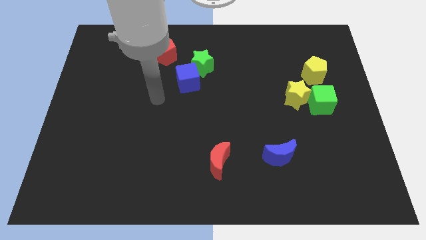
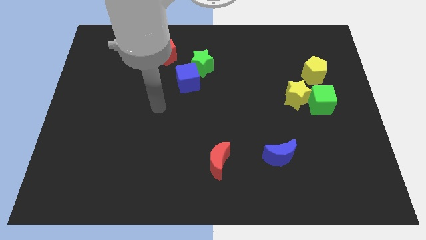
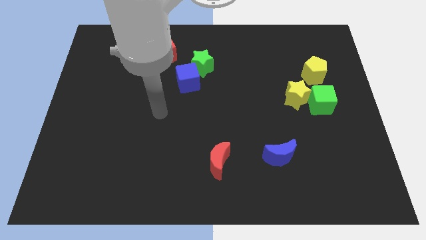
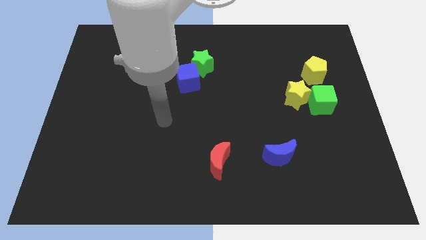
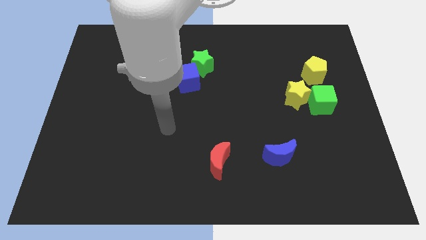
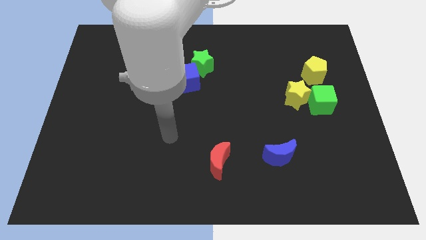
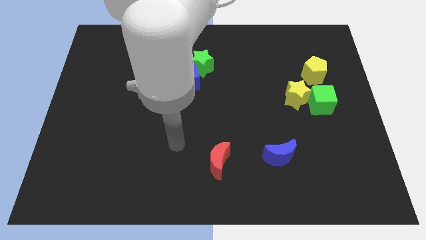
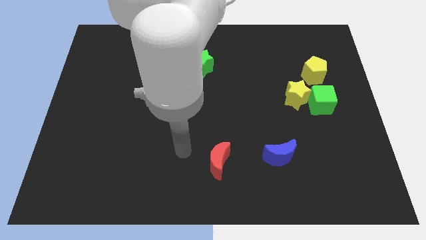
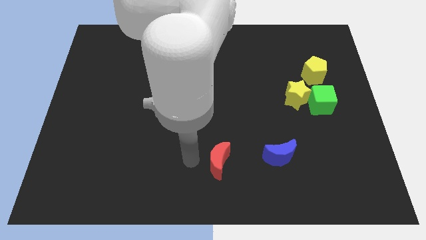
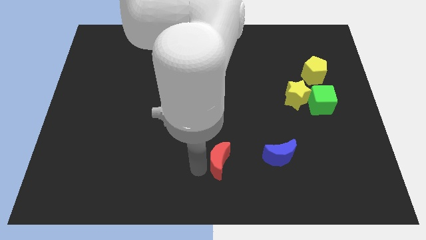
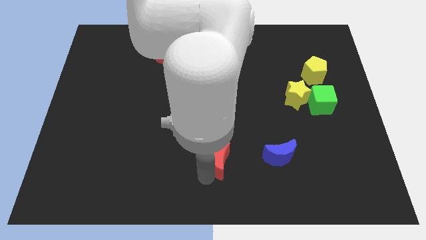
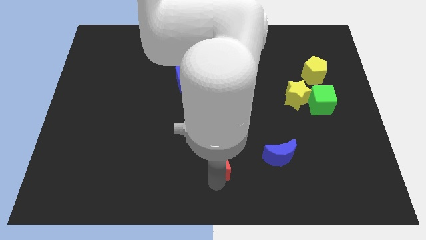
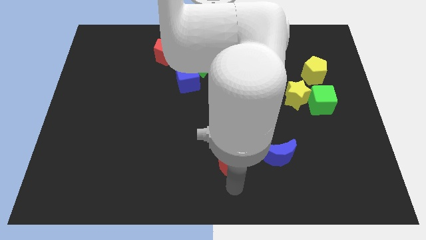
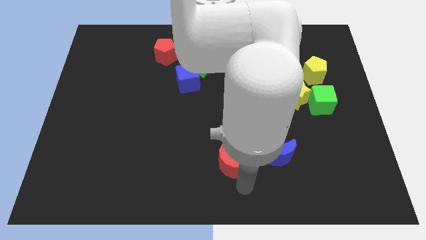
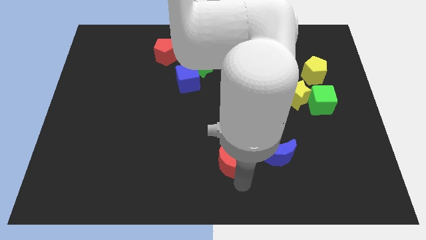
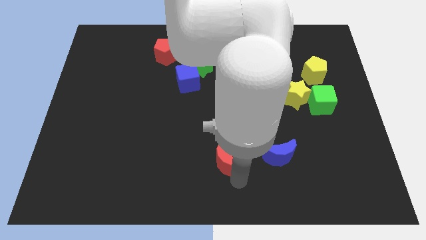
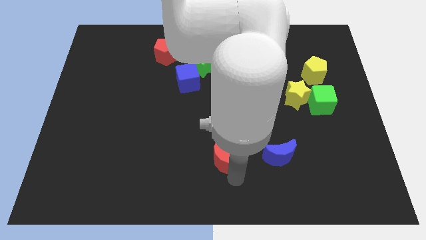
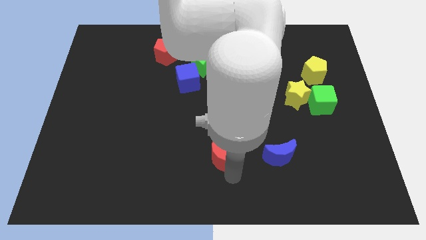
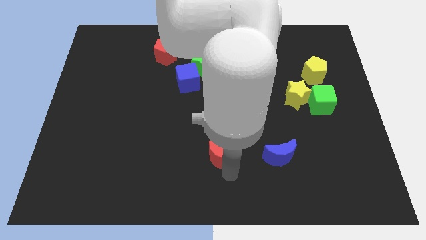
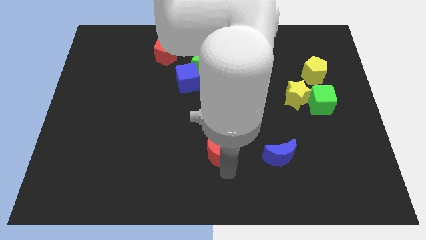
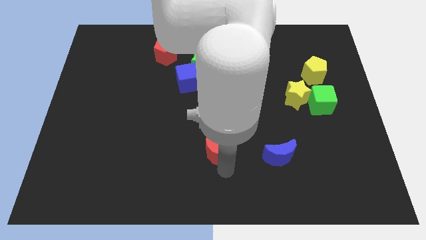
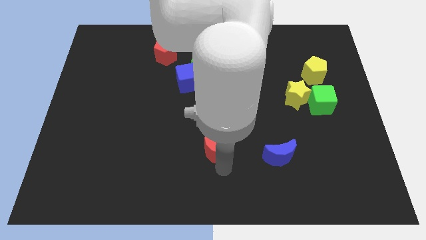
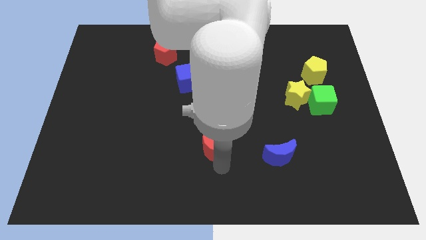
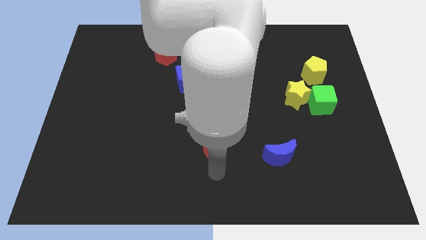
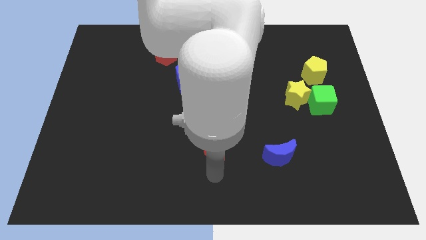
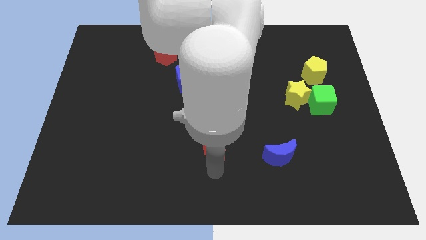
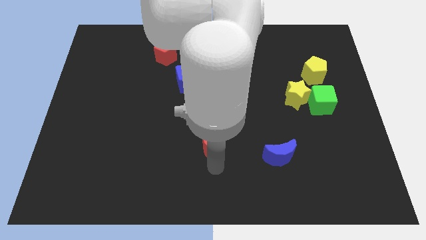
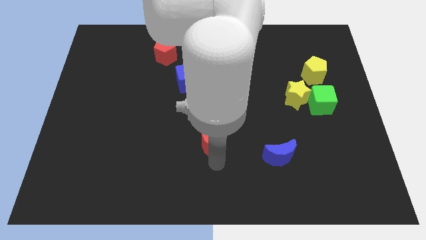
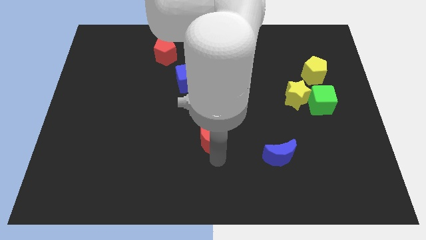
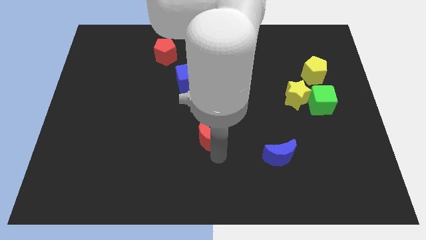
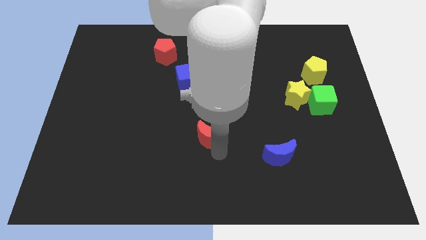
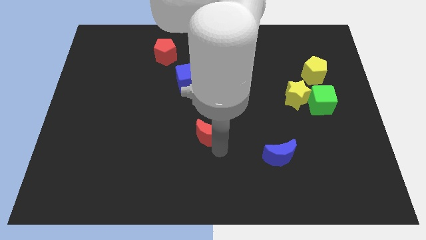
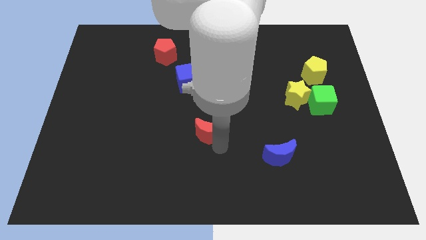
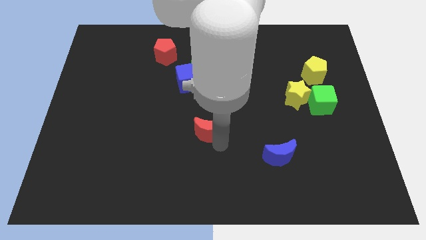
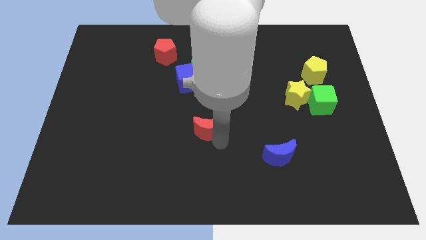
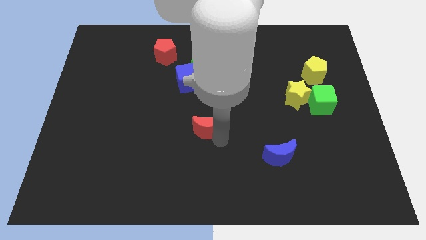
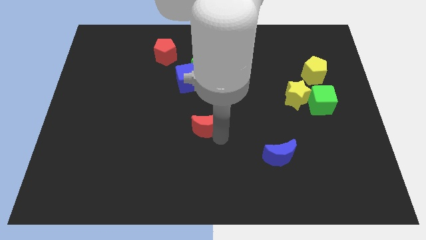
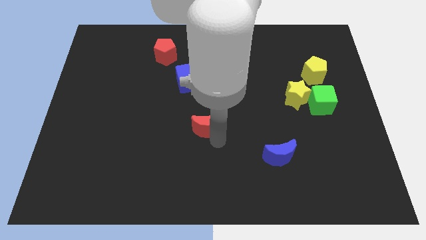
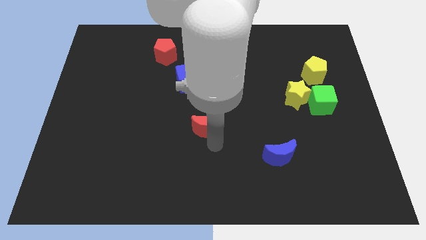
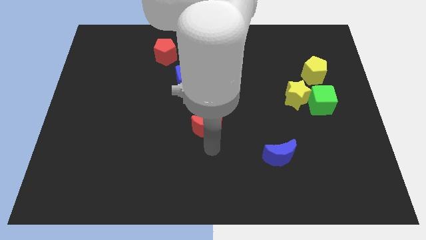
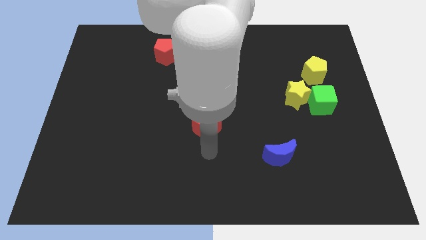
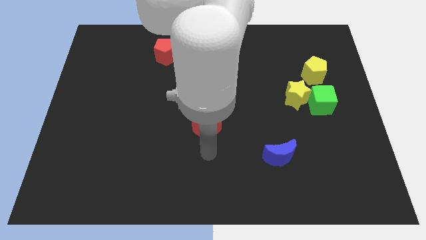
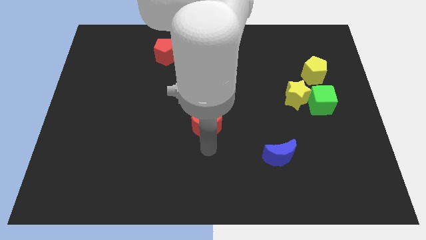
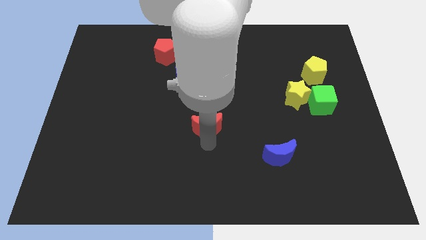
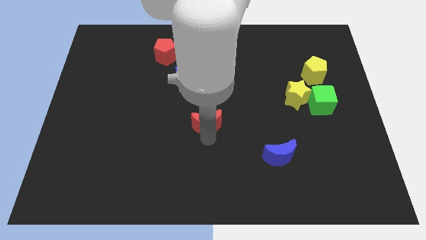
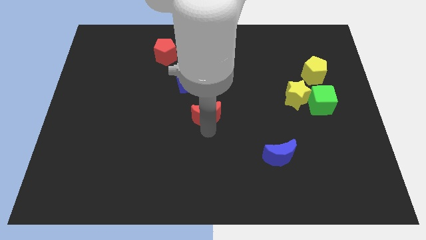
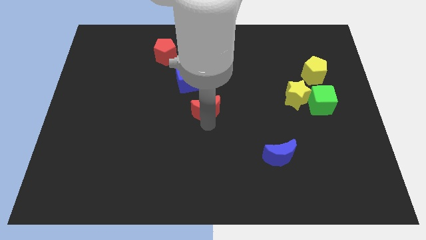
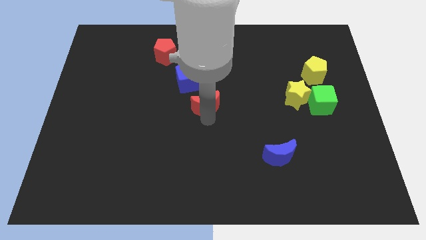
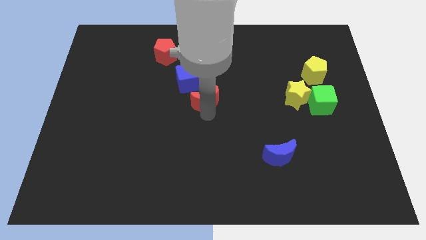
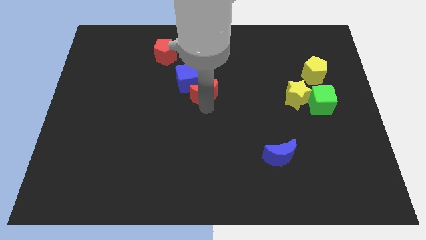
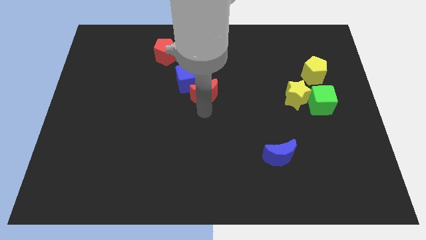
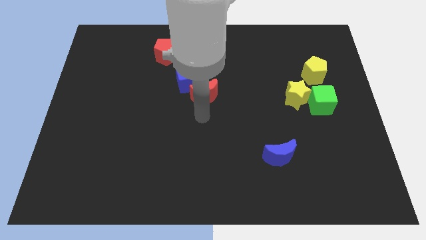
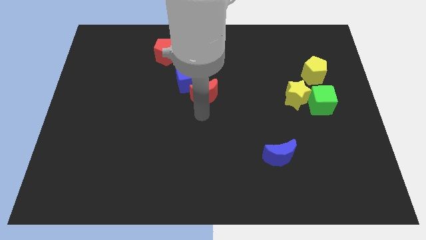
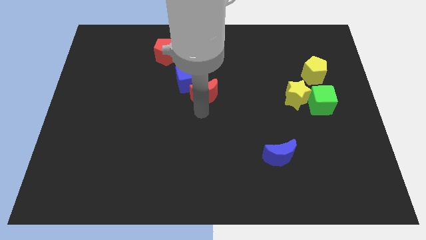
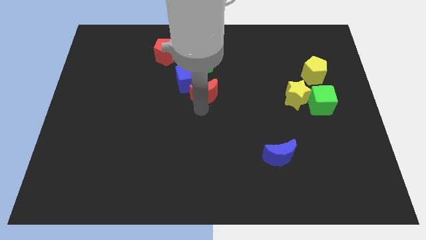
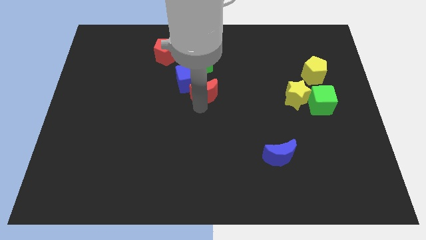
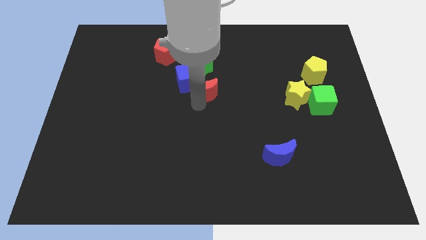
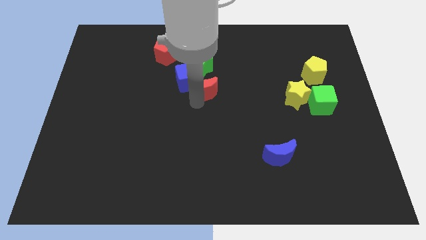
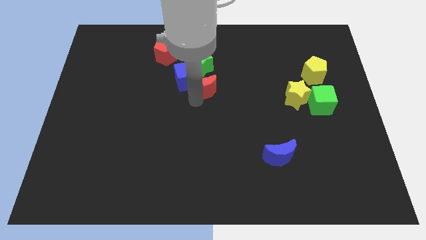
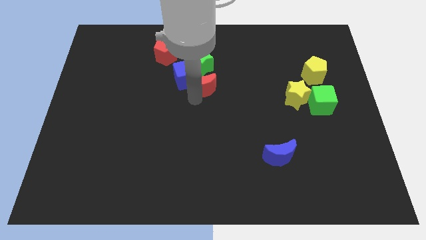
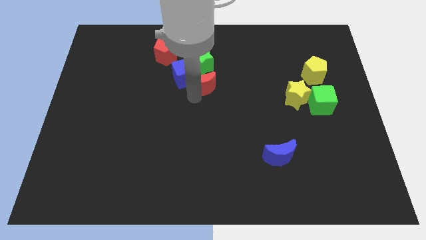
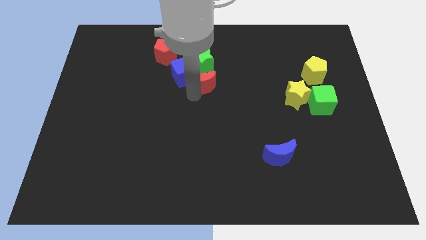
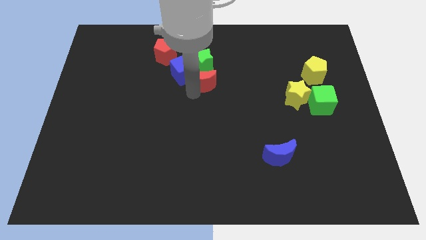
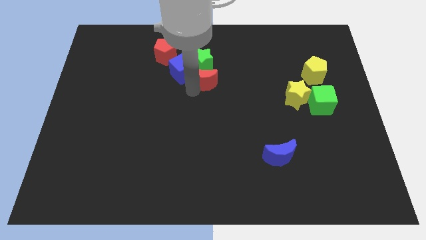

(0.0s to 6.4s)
move the red moon next to the green star

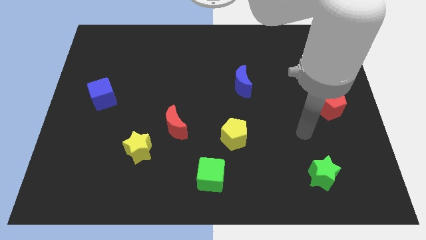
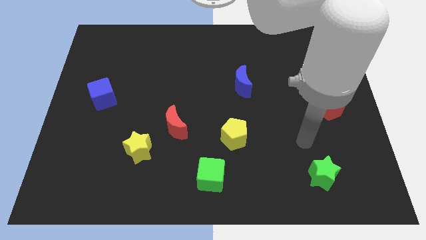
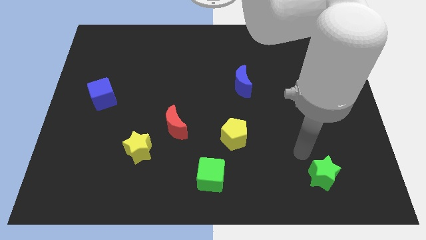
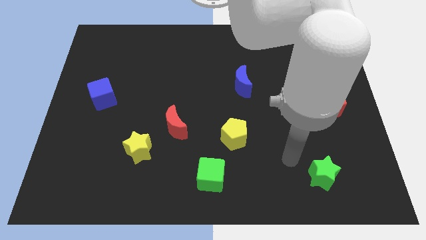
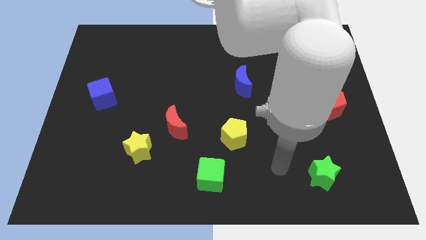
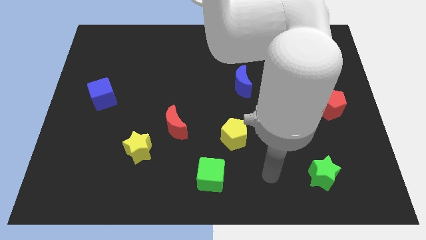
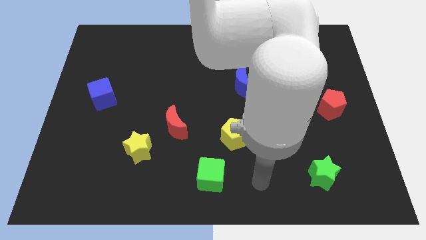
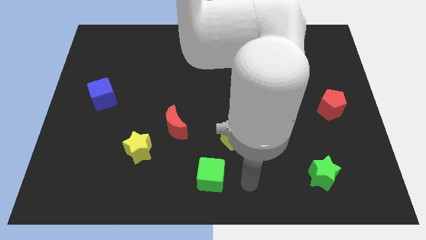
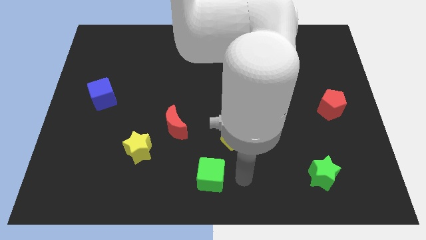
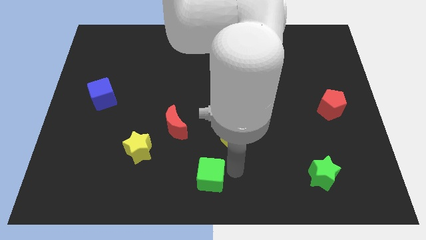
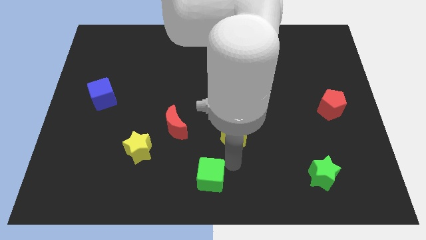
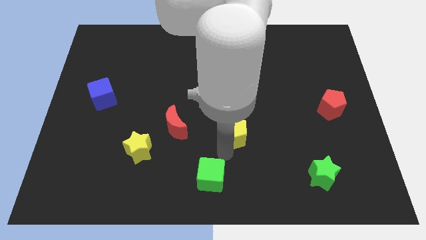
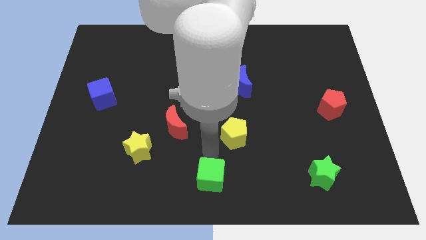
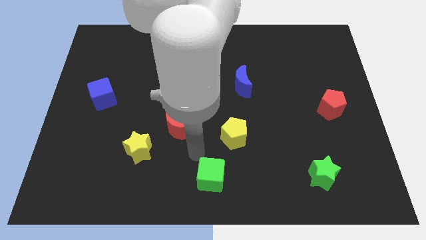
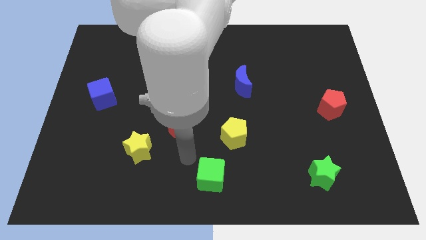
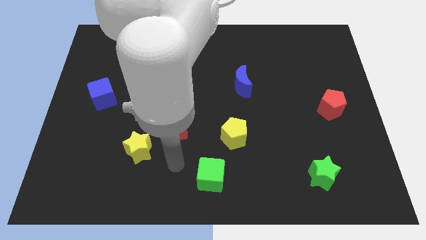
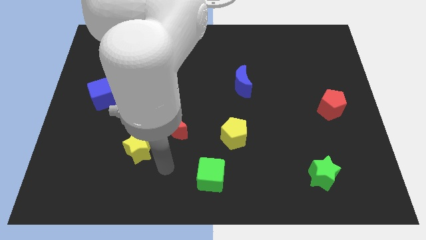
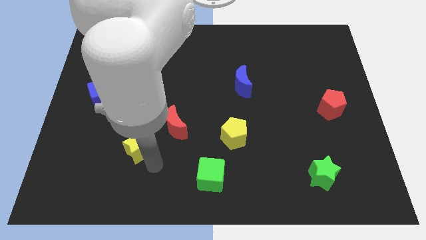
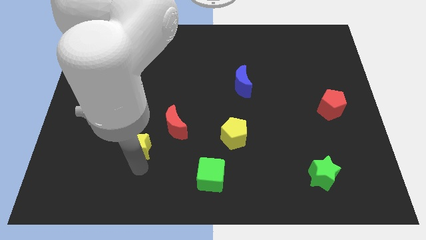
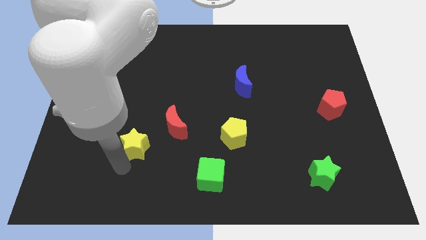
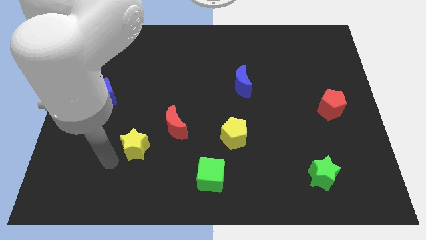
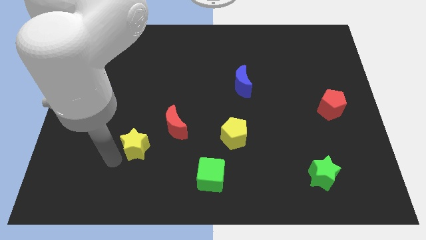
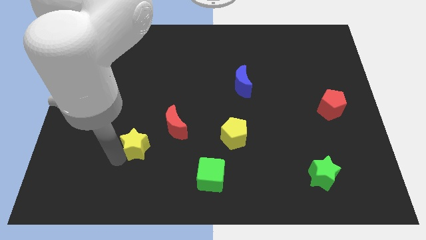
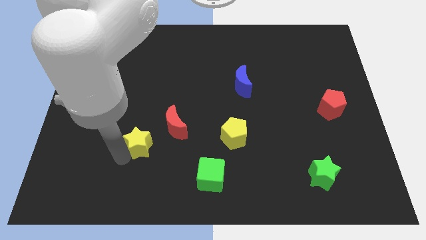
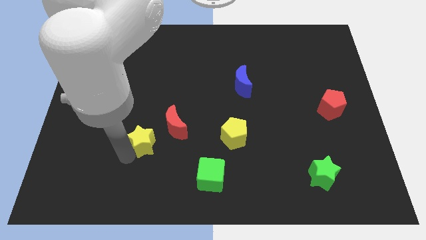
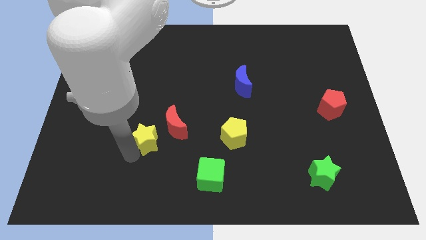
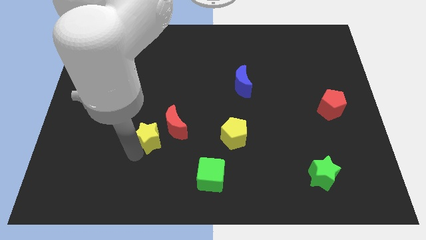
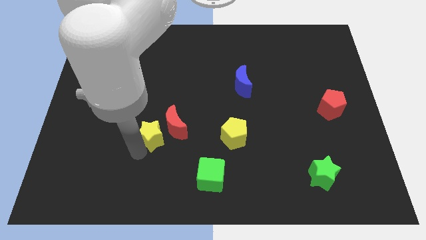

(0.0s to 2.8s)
put the yellow star next to the red moon
